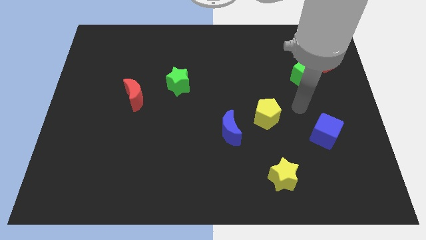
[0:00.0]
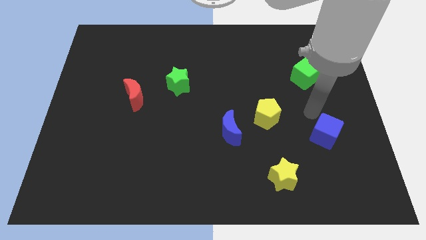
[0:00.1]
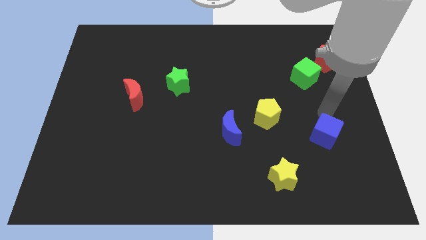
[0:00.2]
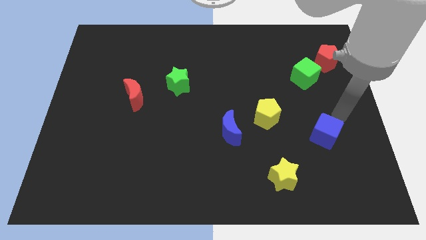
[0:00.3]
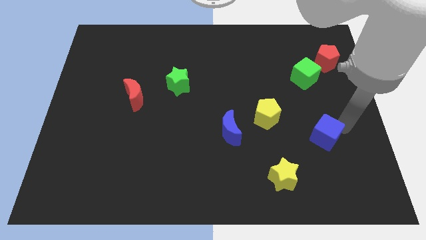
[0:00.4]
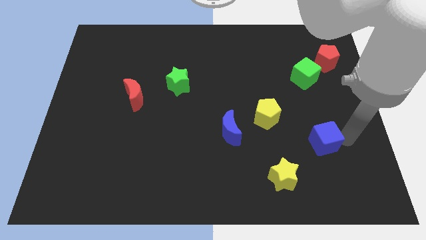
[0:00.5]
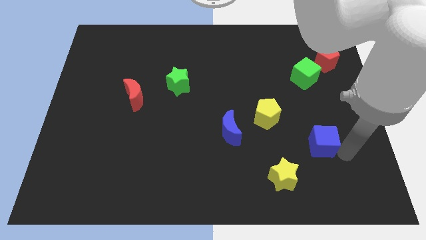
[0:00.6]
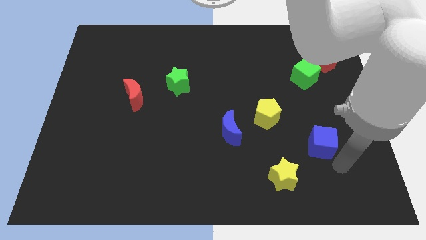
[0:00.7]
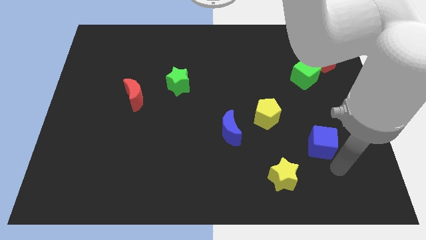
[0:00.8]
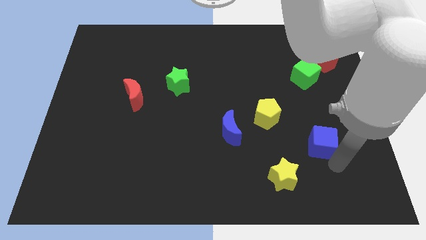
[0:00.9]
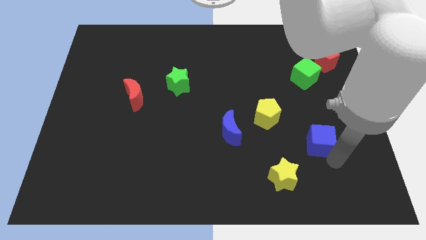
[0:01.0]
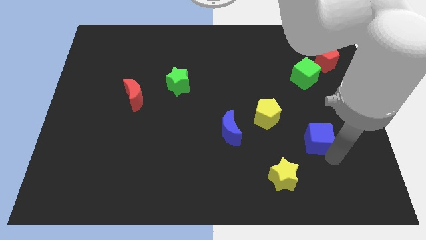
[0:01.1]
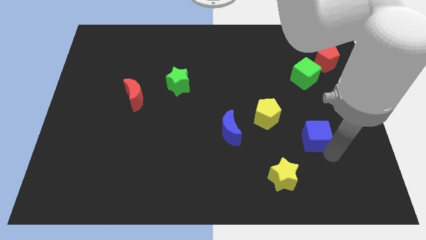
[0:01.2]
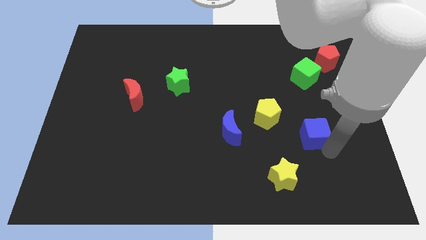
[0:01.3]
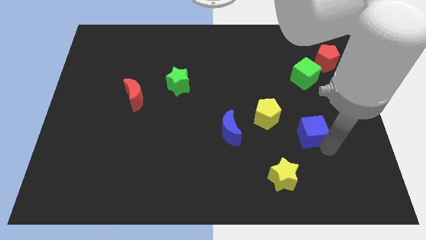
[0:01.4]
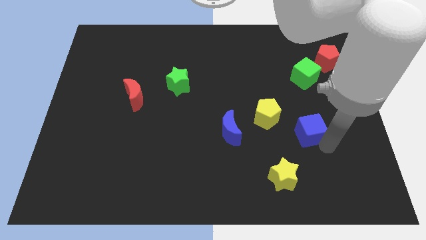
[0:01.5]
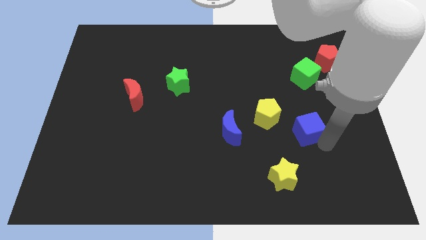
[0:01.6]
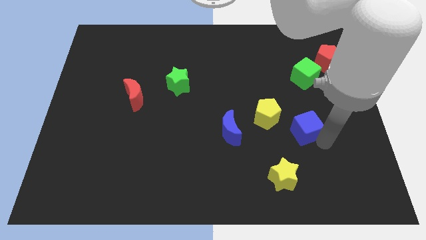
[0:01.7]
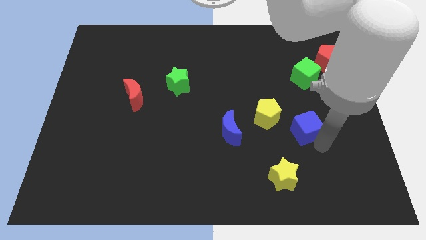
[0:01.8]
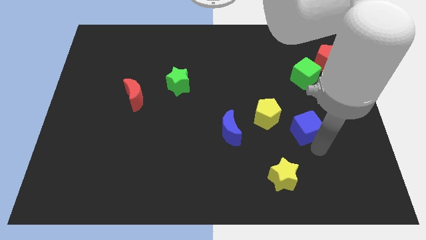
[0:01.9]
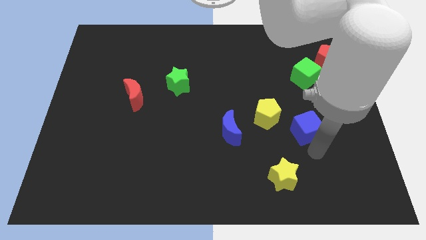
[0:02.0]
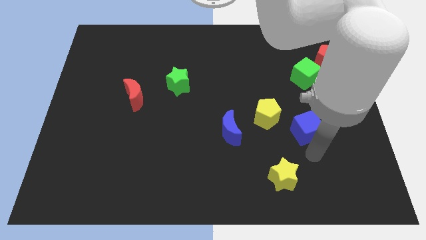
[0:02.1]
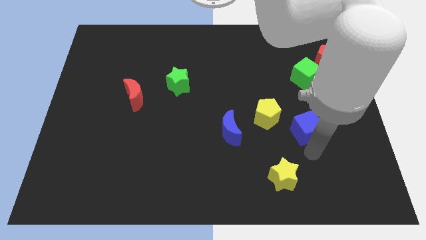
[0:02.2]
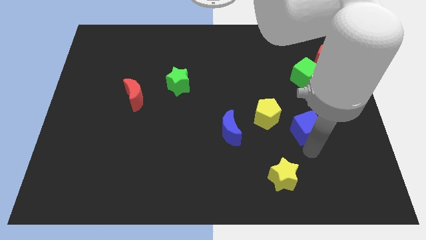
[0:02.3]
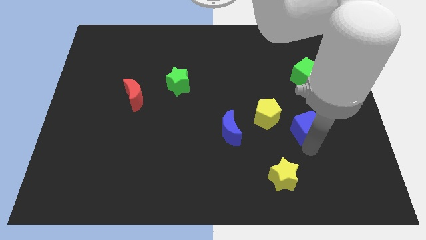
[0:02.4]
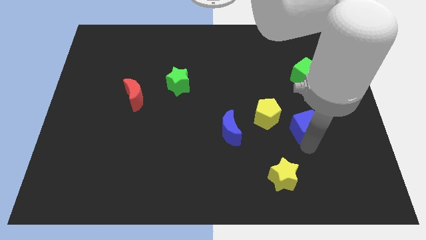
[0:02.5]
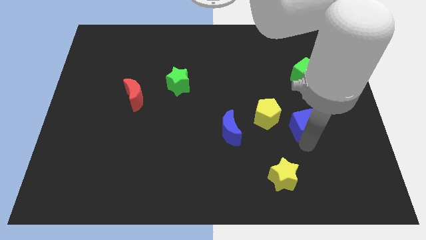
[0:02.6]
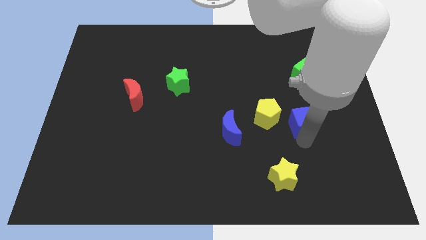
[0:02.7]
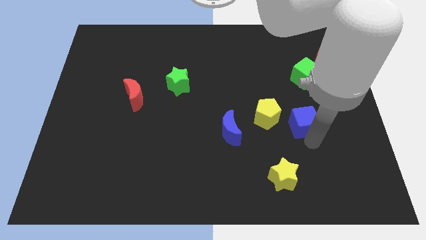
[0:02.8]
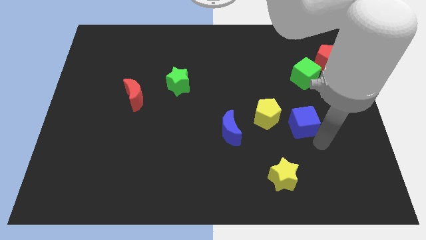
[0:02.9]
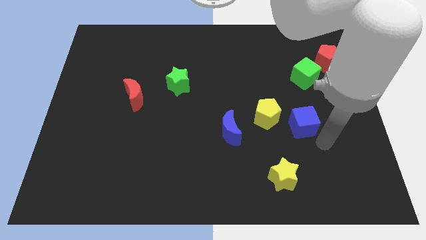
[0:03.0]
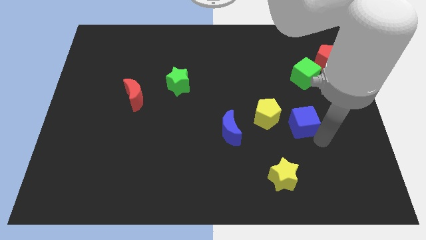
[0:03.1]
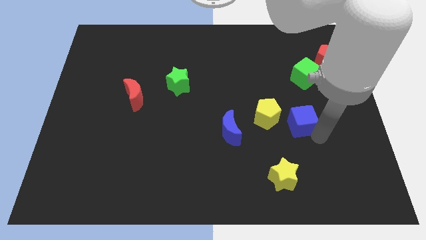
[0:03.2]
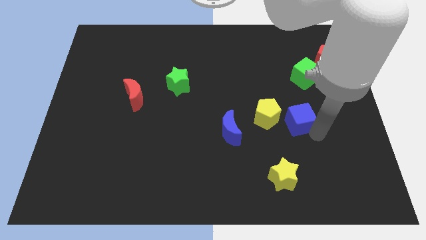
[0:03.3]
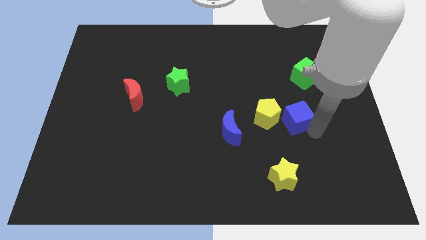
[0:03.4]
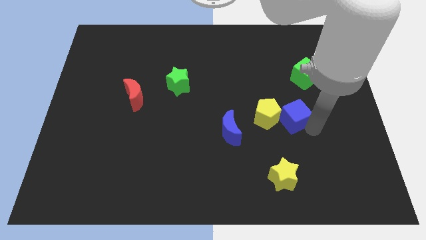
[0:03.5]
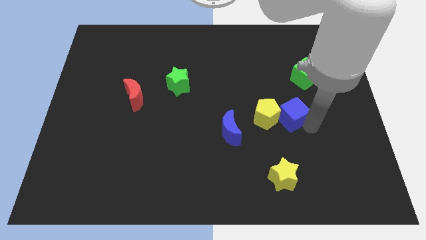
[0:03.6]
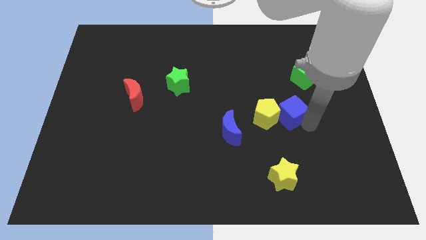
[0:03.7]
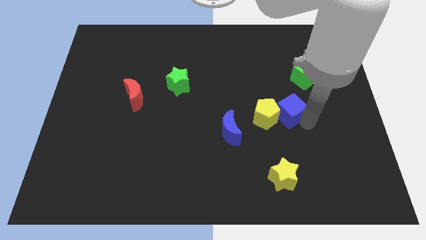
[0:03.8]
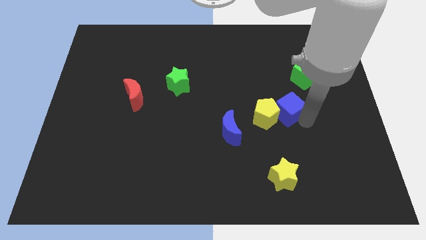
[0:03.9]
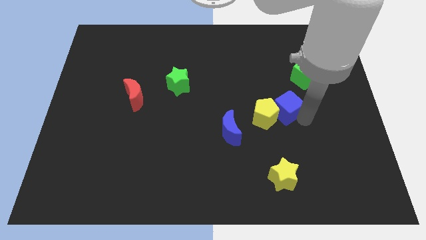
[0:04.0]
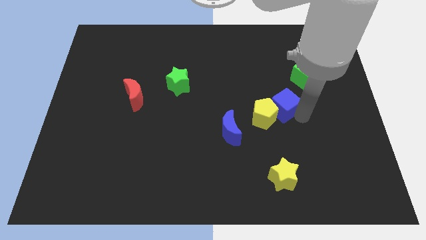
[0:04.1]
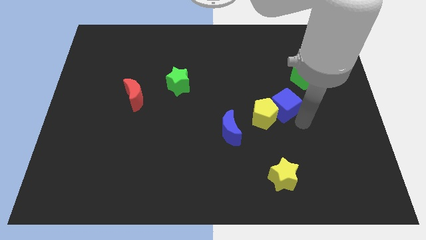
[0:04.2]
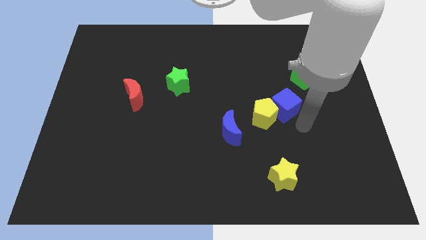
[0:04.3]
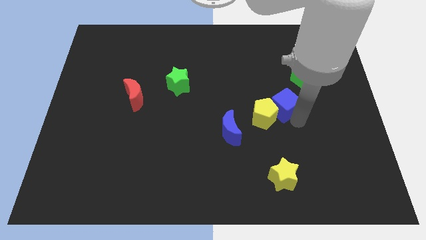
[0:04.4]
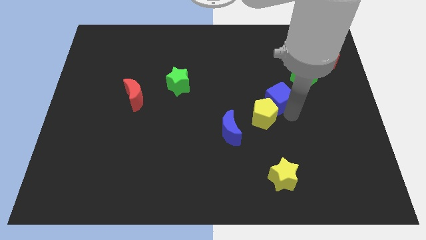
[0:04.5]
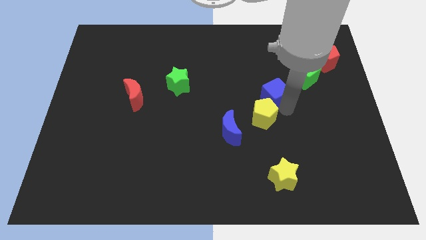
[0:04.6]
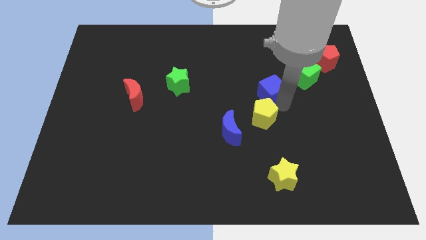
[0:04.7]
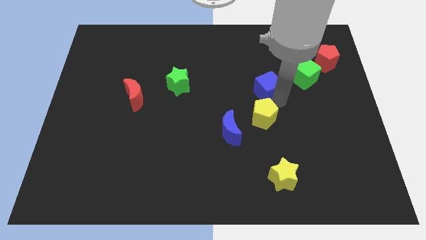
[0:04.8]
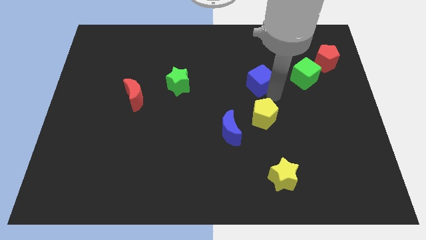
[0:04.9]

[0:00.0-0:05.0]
slide the blue cube up and then to the left

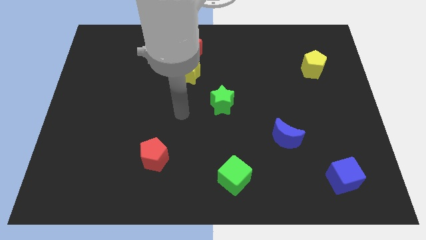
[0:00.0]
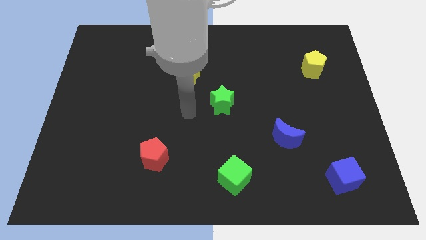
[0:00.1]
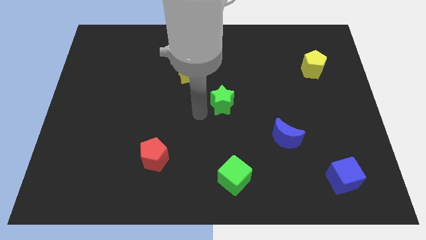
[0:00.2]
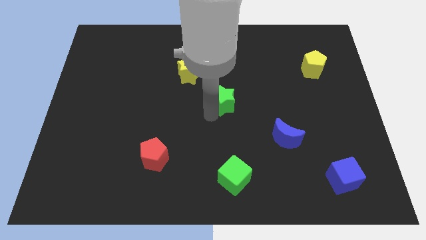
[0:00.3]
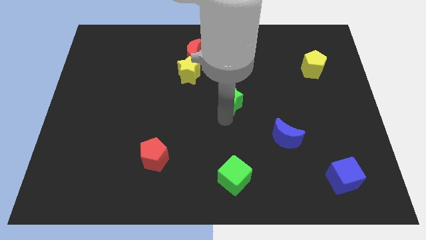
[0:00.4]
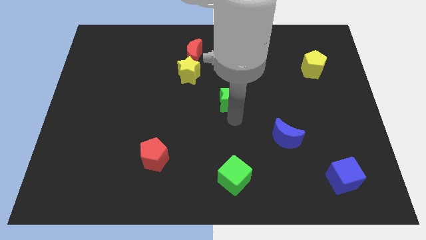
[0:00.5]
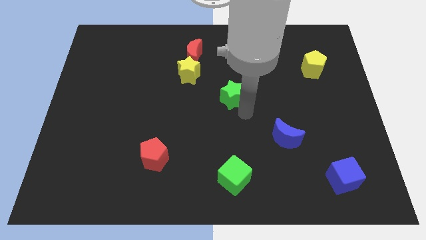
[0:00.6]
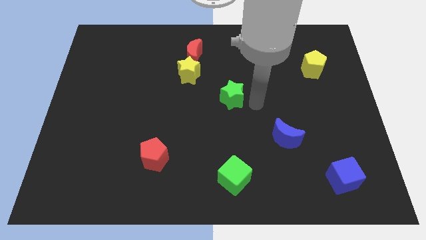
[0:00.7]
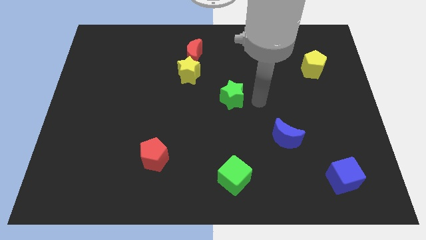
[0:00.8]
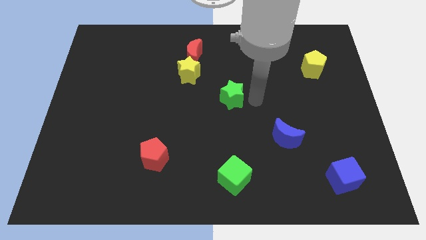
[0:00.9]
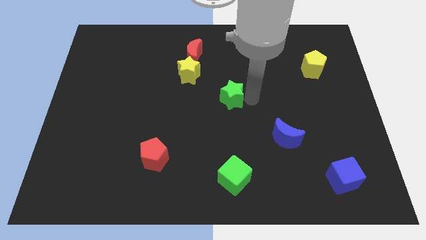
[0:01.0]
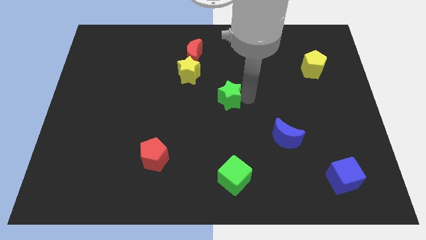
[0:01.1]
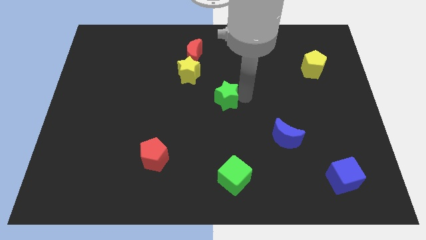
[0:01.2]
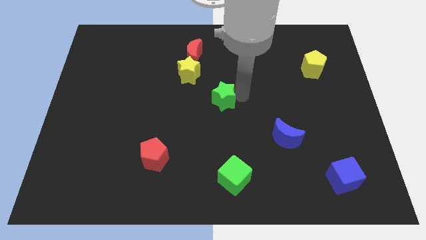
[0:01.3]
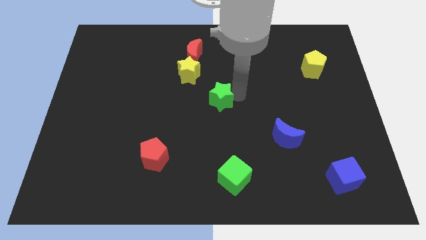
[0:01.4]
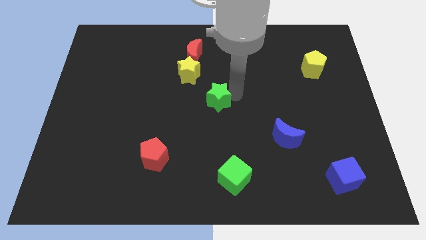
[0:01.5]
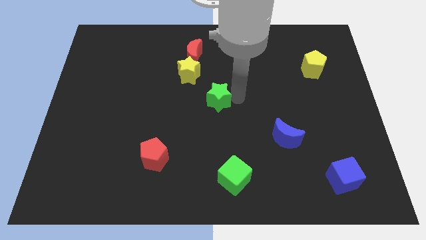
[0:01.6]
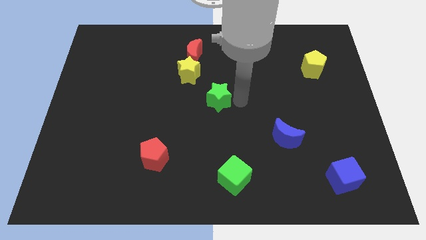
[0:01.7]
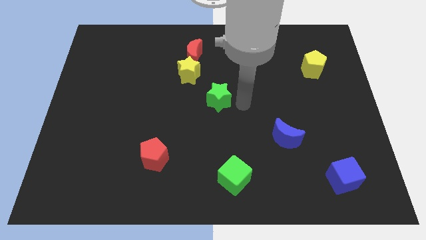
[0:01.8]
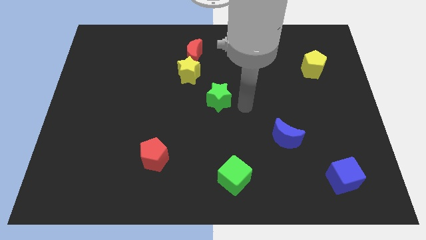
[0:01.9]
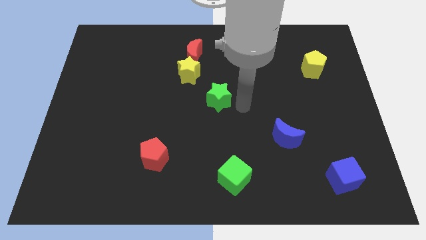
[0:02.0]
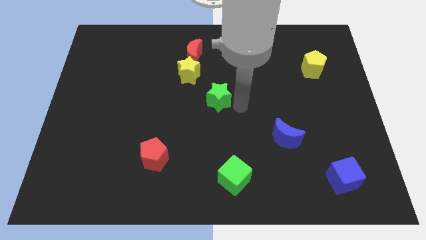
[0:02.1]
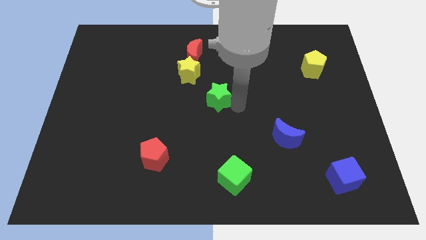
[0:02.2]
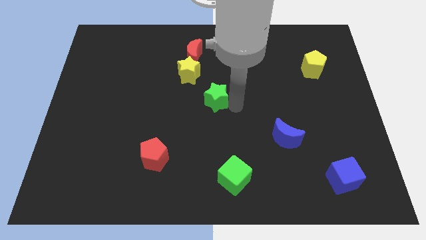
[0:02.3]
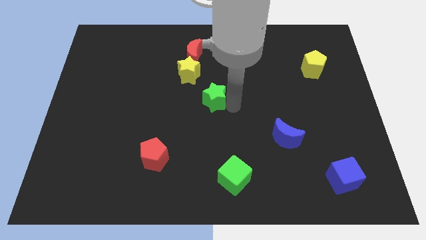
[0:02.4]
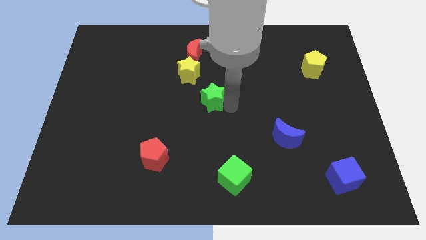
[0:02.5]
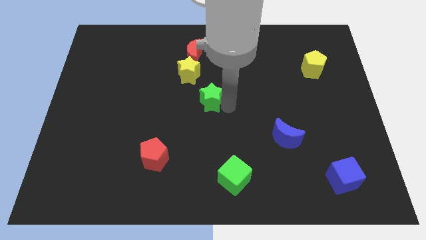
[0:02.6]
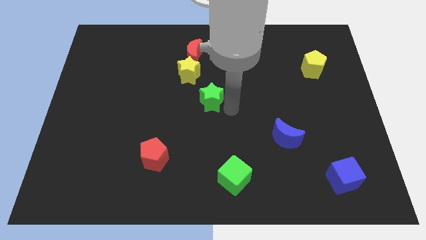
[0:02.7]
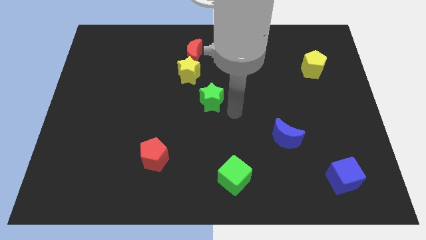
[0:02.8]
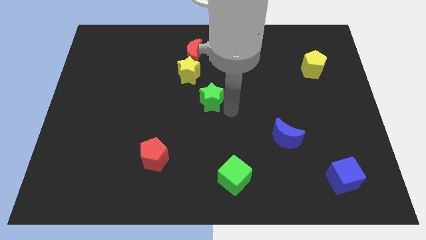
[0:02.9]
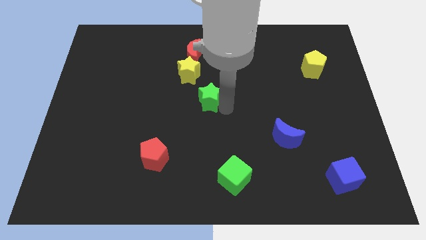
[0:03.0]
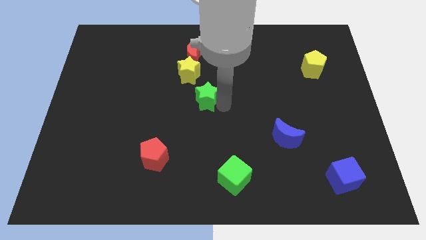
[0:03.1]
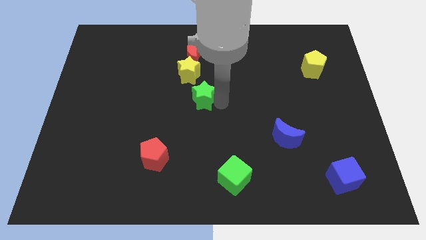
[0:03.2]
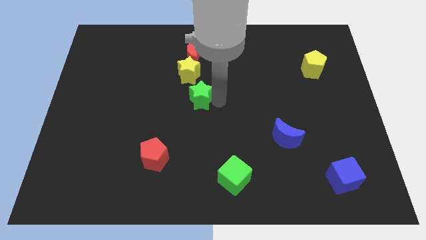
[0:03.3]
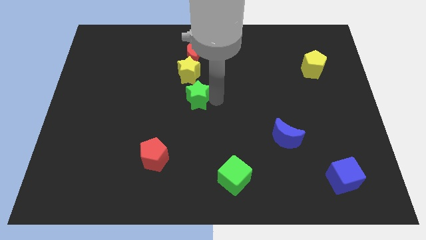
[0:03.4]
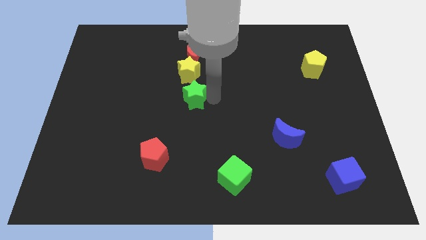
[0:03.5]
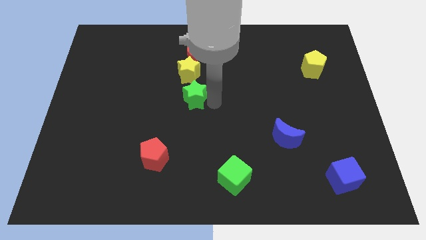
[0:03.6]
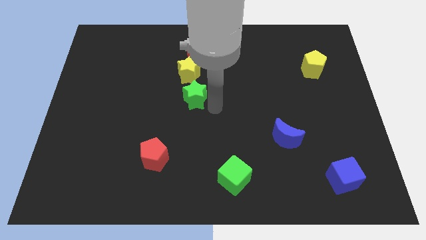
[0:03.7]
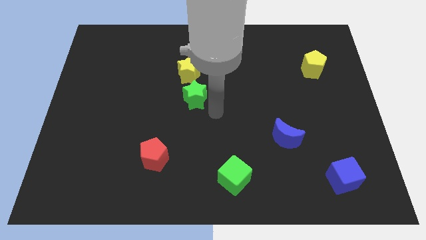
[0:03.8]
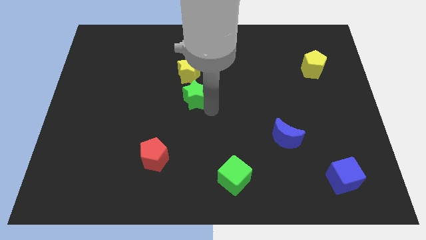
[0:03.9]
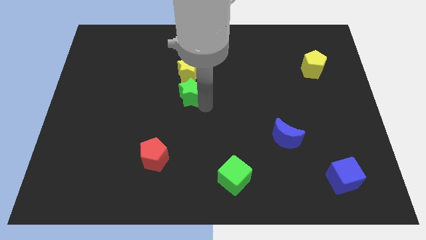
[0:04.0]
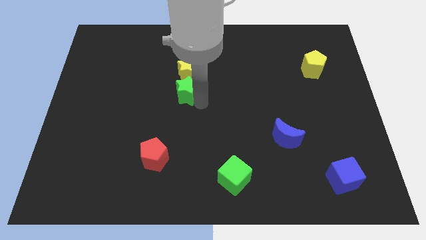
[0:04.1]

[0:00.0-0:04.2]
push the green star upwards and left a little bit
